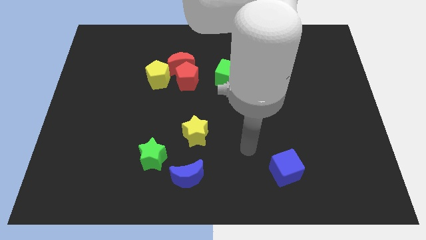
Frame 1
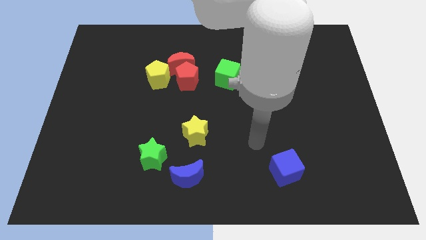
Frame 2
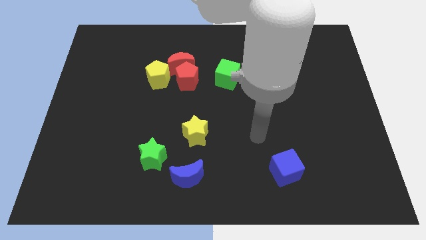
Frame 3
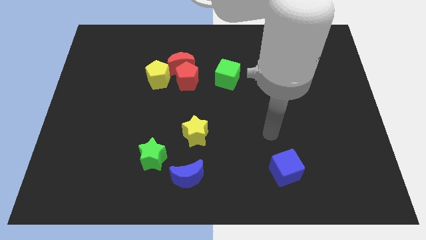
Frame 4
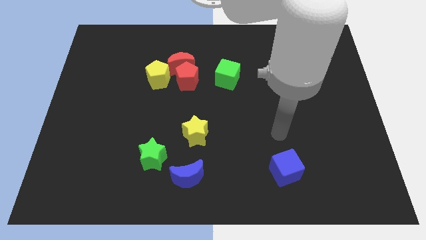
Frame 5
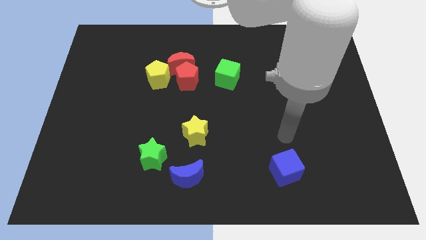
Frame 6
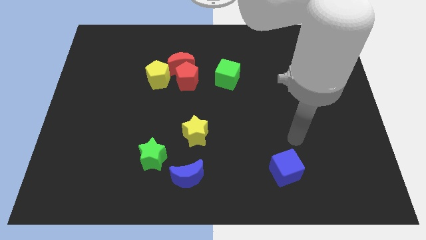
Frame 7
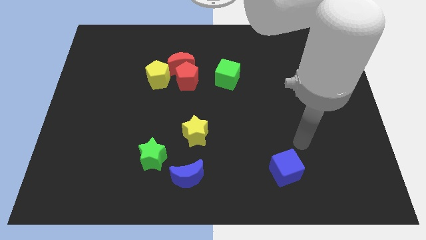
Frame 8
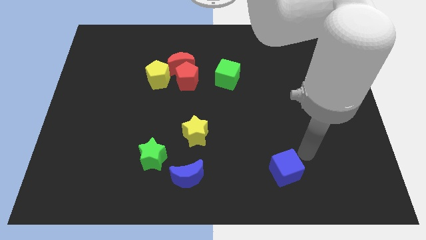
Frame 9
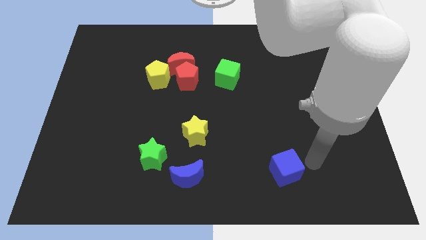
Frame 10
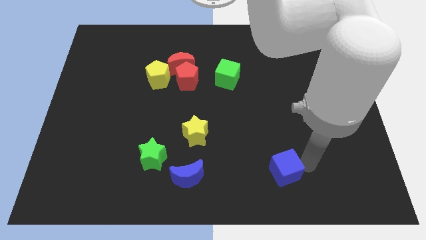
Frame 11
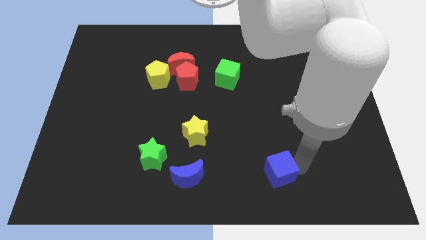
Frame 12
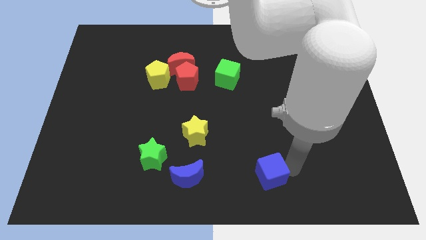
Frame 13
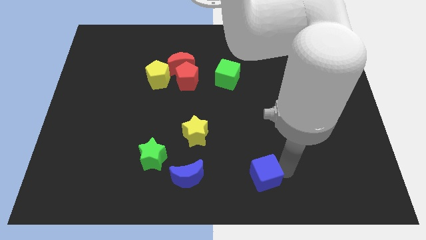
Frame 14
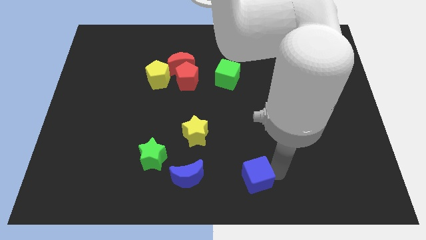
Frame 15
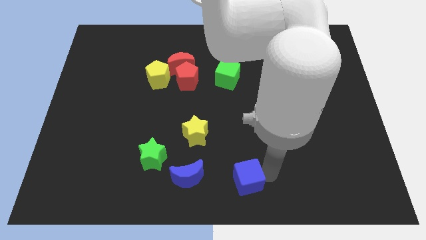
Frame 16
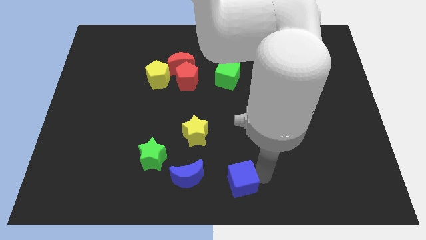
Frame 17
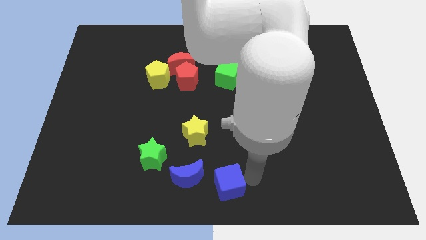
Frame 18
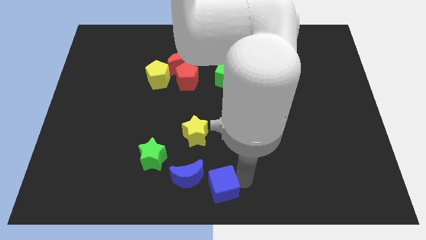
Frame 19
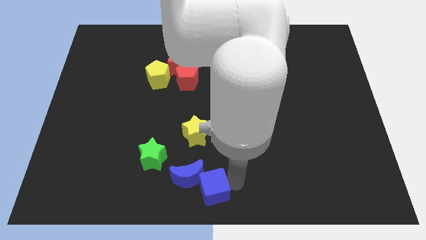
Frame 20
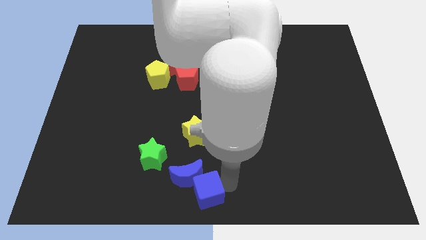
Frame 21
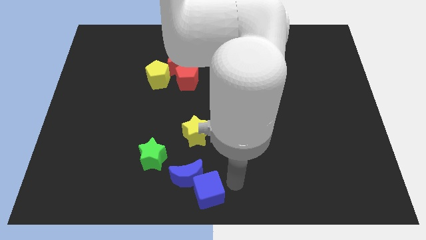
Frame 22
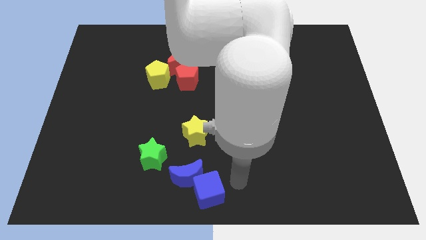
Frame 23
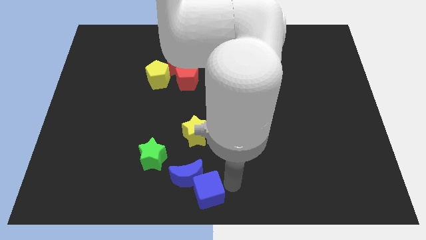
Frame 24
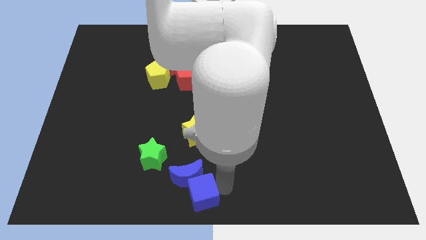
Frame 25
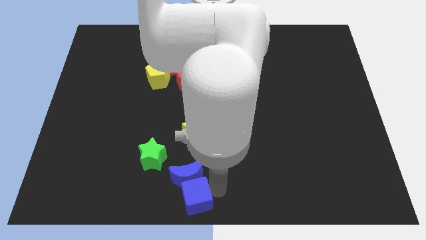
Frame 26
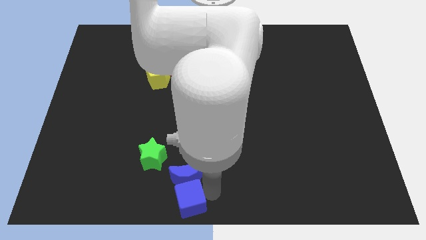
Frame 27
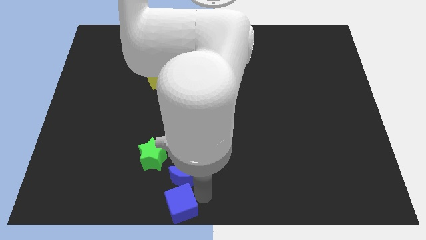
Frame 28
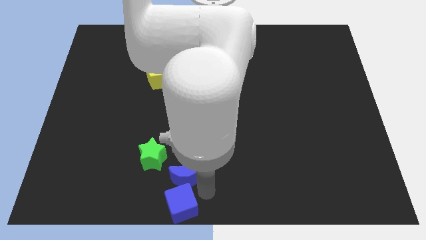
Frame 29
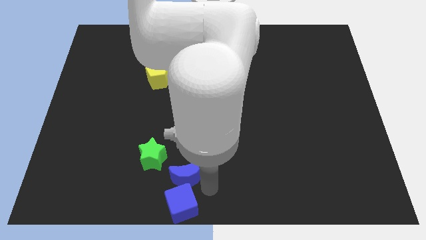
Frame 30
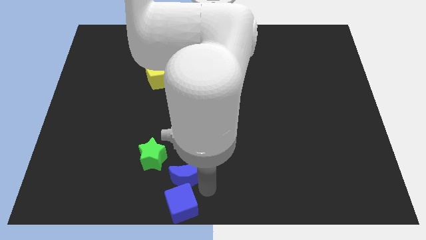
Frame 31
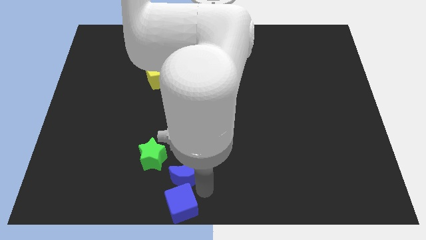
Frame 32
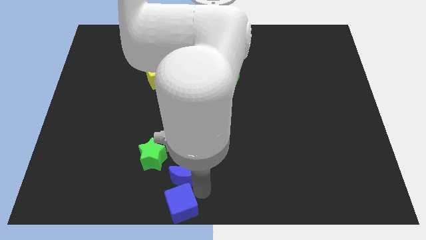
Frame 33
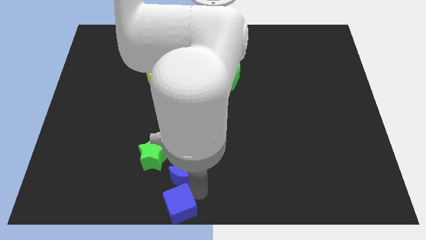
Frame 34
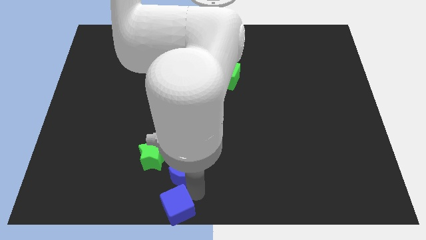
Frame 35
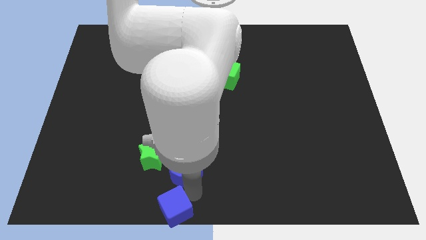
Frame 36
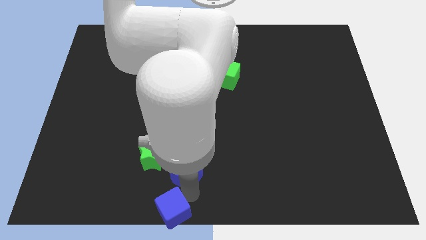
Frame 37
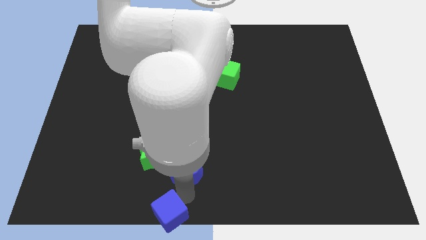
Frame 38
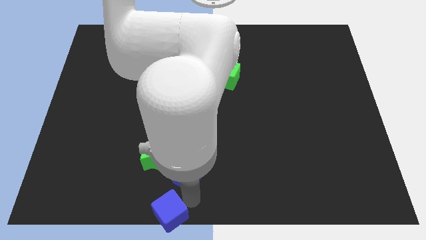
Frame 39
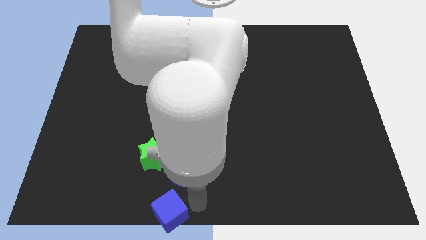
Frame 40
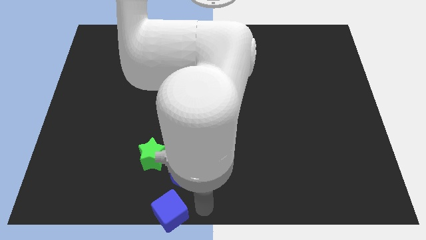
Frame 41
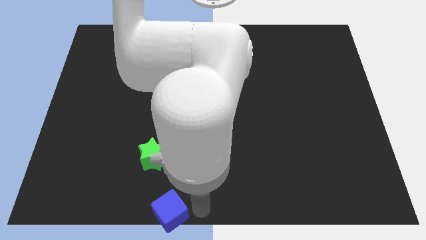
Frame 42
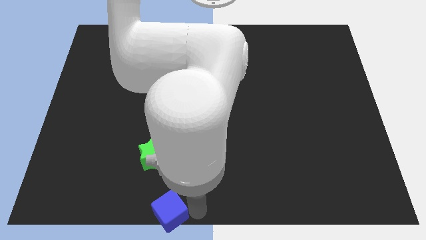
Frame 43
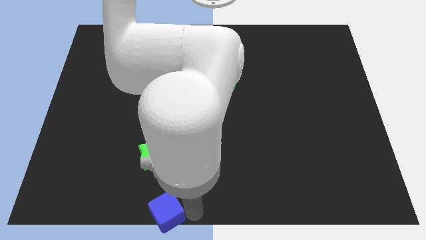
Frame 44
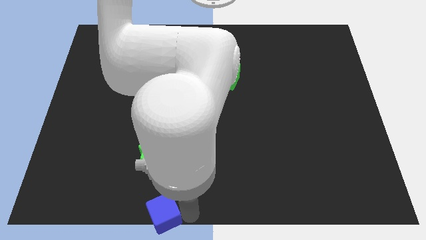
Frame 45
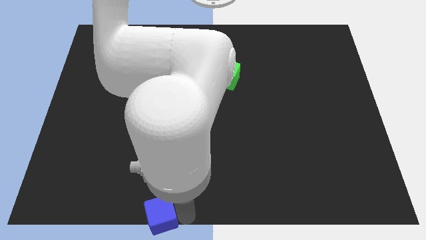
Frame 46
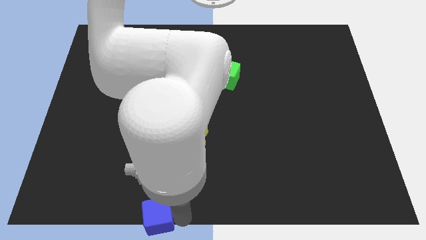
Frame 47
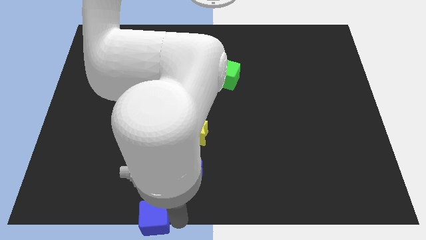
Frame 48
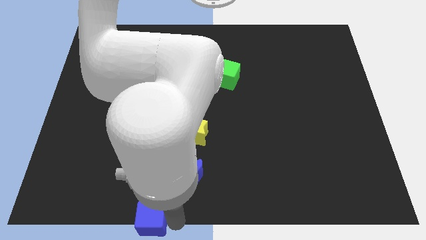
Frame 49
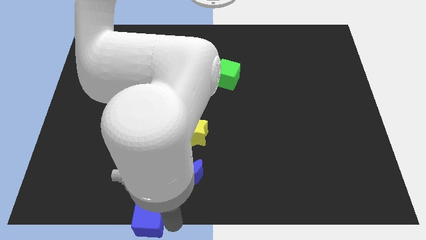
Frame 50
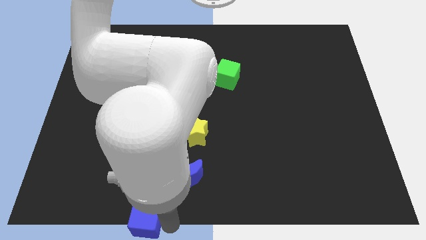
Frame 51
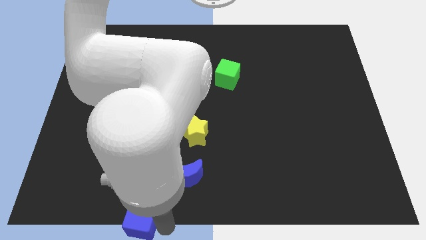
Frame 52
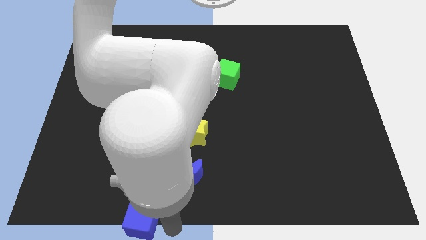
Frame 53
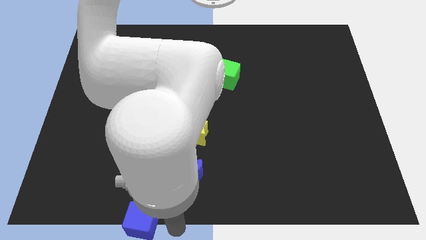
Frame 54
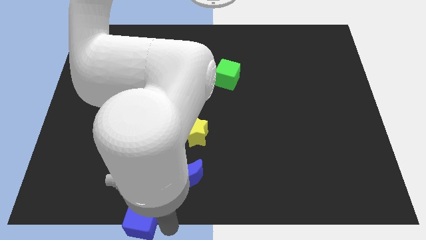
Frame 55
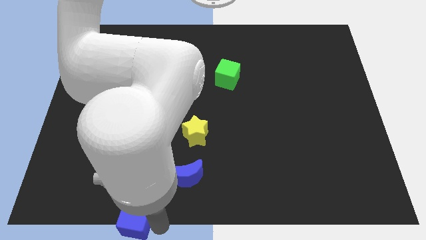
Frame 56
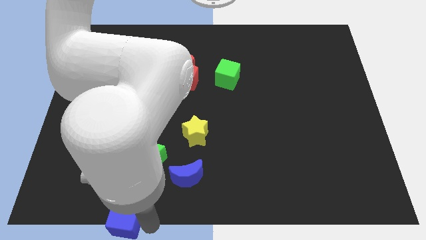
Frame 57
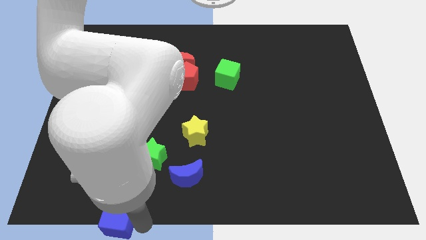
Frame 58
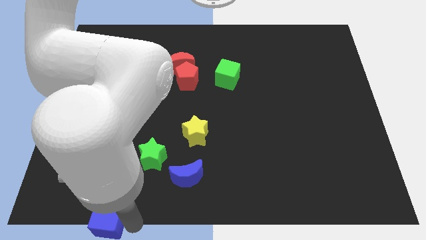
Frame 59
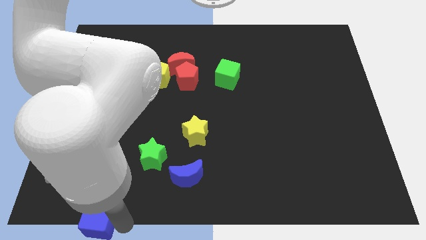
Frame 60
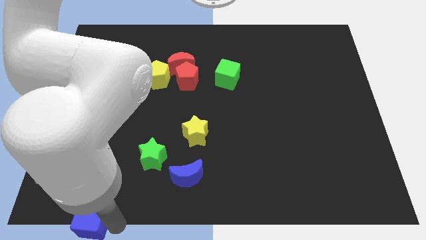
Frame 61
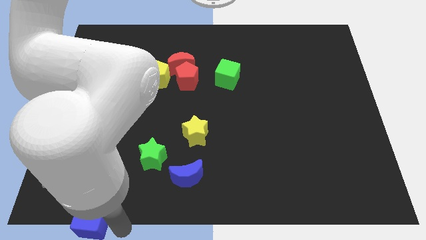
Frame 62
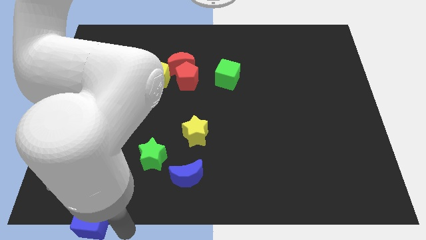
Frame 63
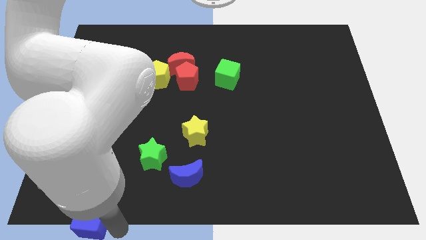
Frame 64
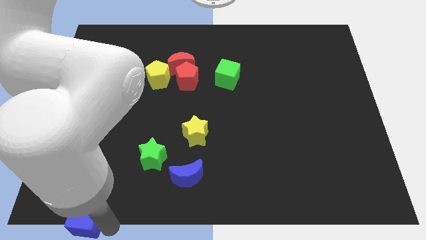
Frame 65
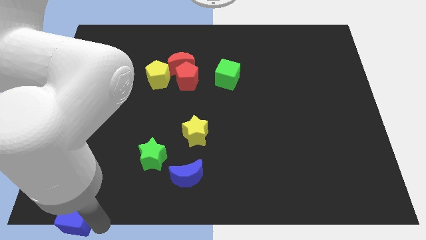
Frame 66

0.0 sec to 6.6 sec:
put the blue cube to the bottom left
